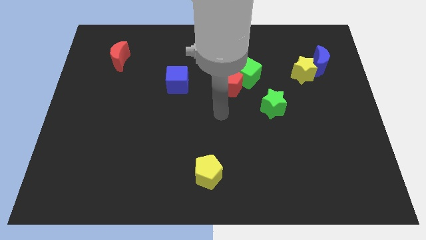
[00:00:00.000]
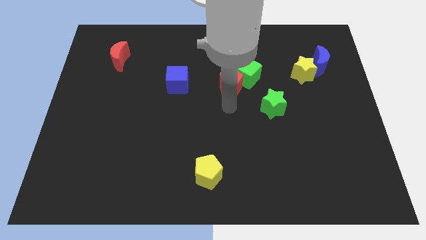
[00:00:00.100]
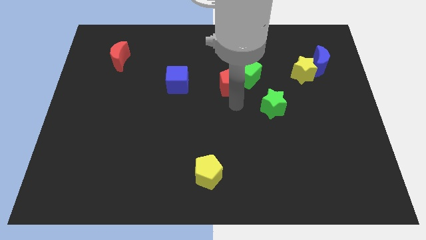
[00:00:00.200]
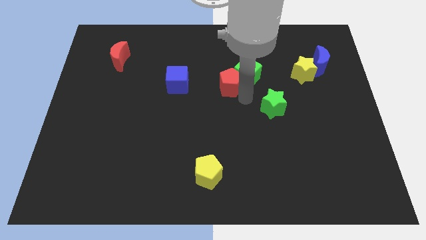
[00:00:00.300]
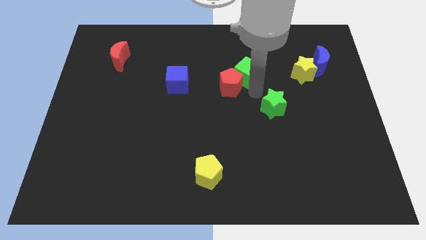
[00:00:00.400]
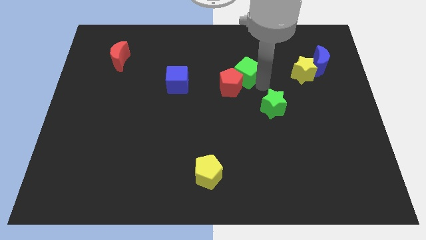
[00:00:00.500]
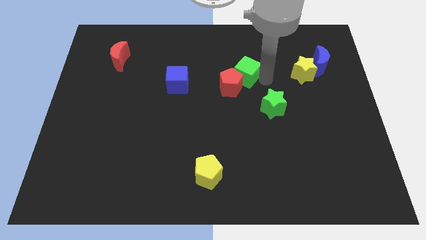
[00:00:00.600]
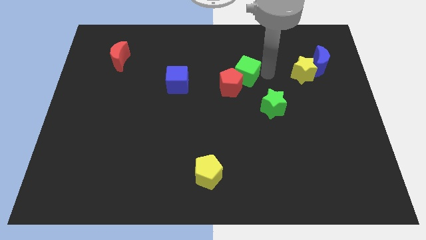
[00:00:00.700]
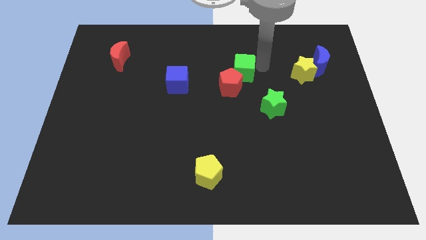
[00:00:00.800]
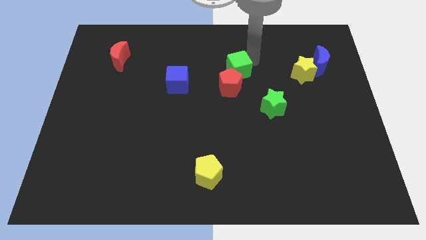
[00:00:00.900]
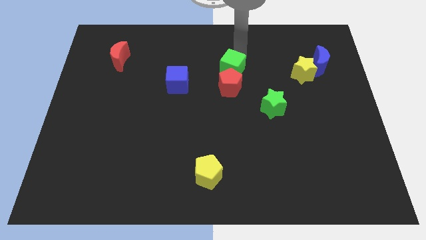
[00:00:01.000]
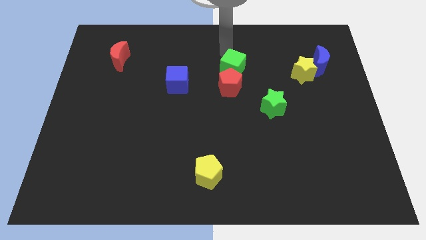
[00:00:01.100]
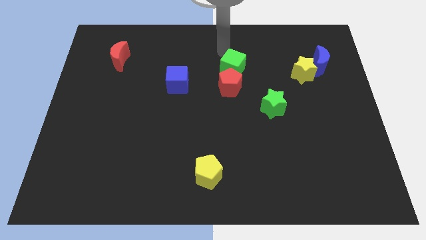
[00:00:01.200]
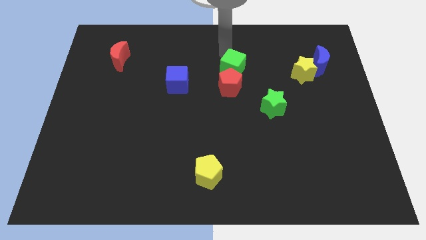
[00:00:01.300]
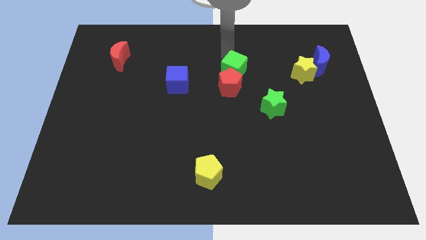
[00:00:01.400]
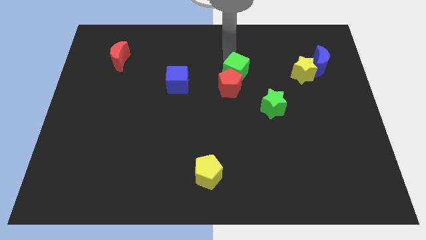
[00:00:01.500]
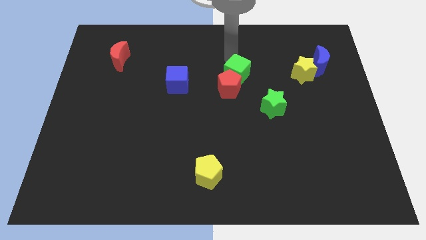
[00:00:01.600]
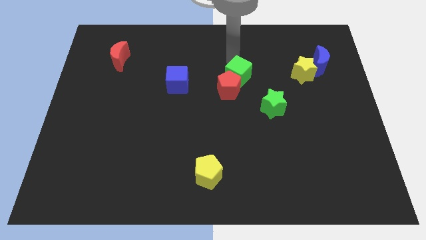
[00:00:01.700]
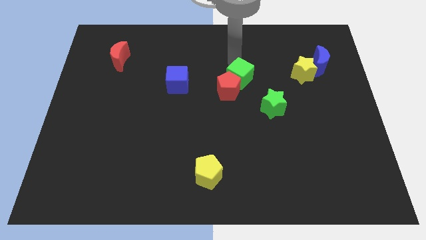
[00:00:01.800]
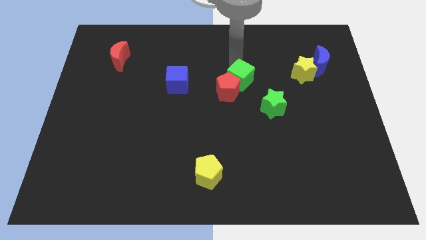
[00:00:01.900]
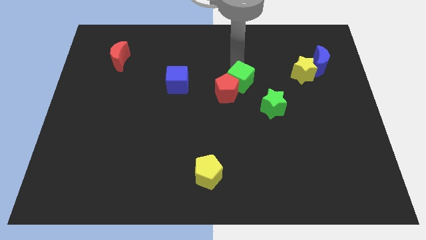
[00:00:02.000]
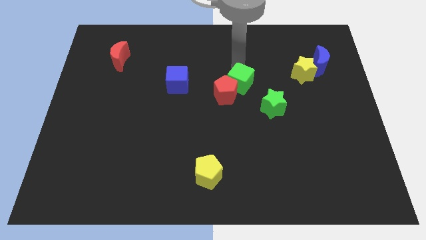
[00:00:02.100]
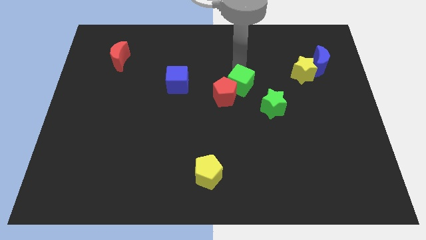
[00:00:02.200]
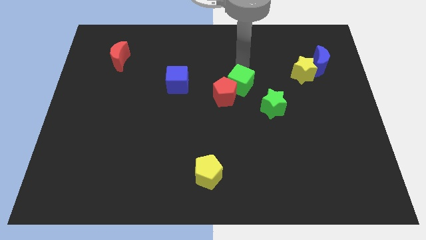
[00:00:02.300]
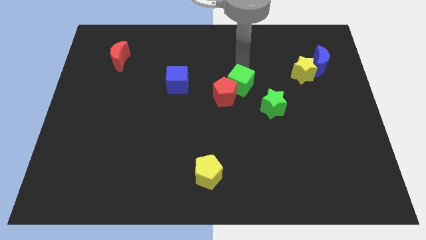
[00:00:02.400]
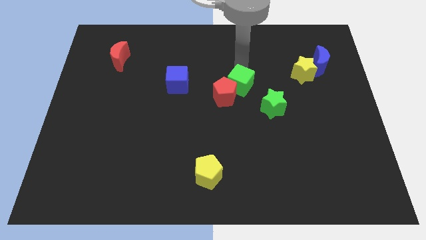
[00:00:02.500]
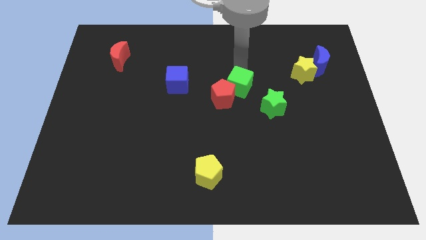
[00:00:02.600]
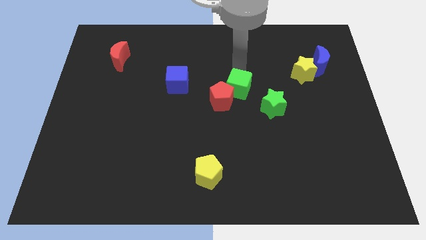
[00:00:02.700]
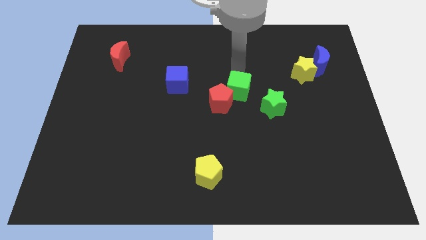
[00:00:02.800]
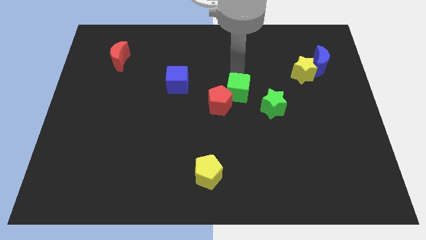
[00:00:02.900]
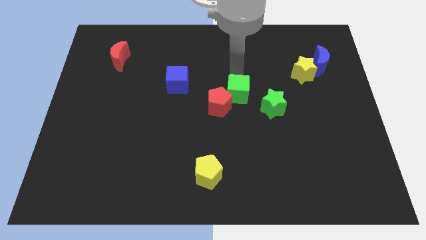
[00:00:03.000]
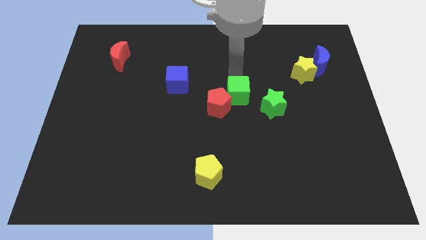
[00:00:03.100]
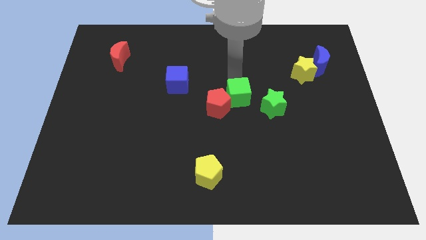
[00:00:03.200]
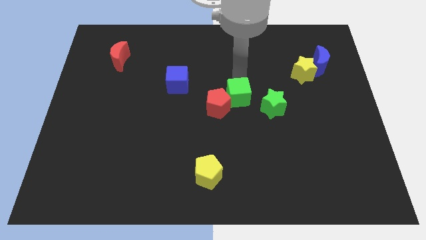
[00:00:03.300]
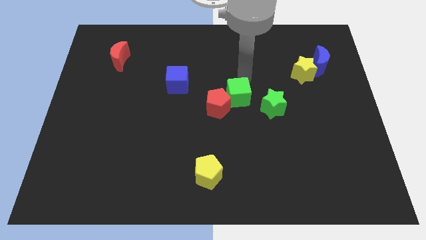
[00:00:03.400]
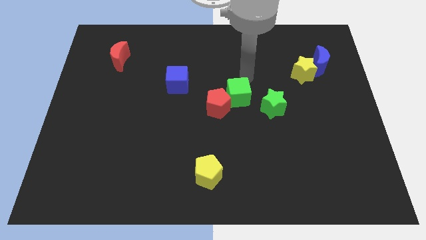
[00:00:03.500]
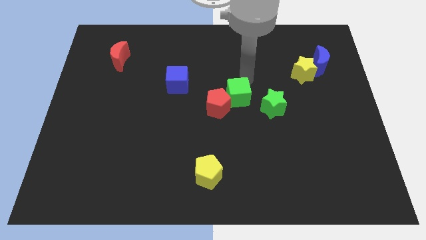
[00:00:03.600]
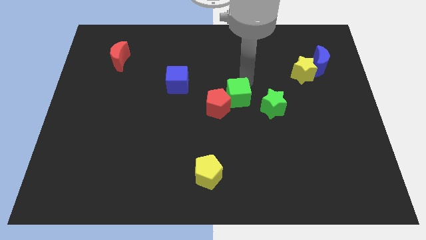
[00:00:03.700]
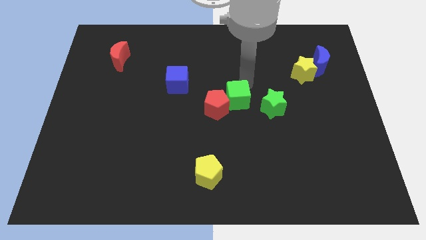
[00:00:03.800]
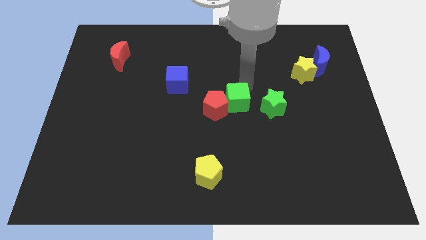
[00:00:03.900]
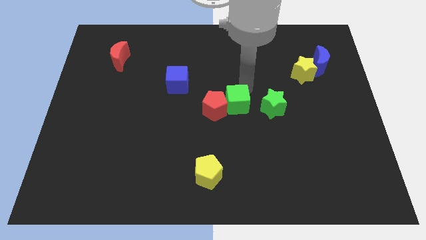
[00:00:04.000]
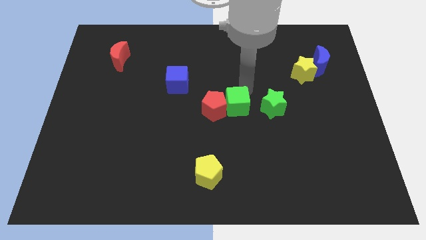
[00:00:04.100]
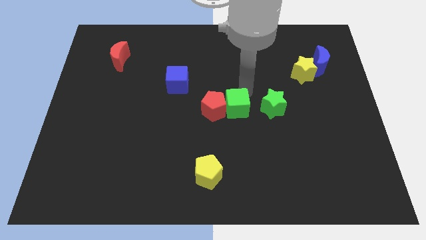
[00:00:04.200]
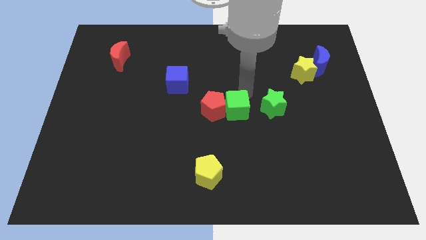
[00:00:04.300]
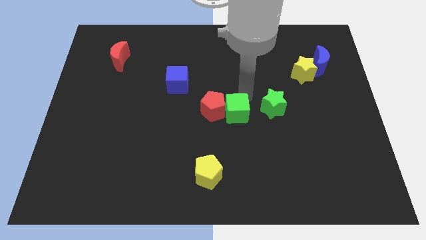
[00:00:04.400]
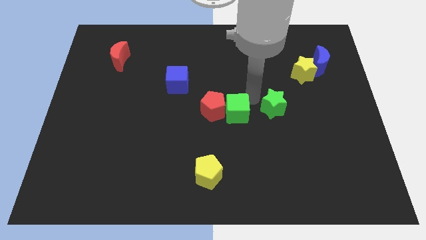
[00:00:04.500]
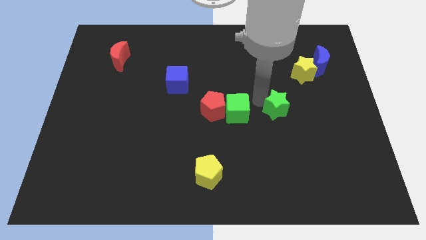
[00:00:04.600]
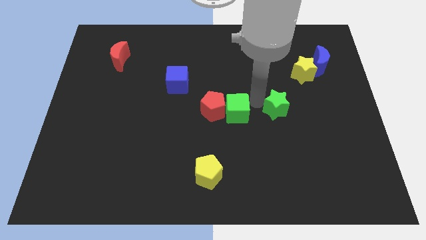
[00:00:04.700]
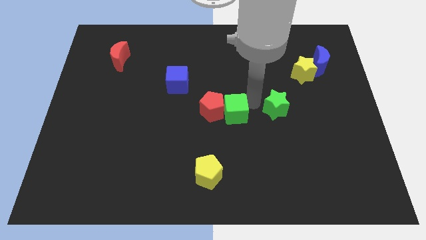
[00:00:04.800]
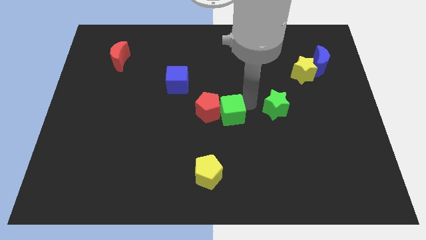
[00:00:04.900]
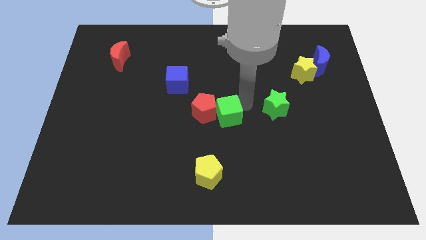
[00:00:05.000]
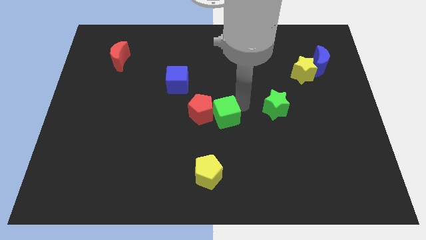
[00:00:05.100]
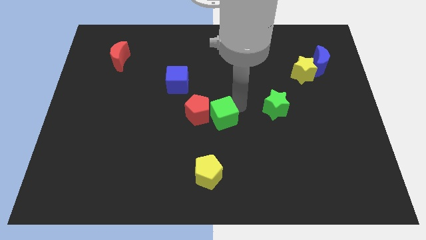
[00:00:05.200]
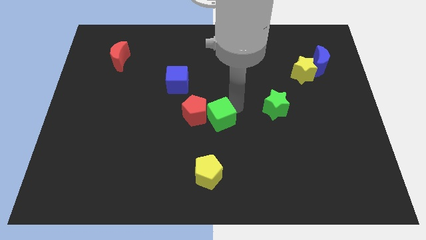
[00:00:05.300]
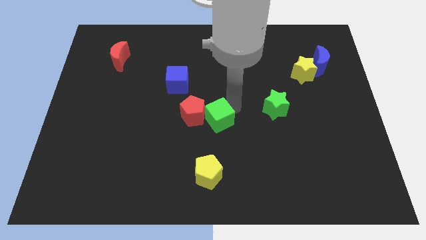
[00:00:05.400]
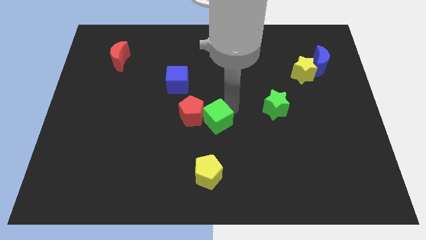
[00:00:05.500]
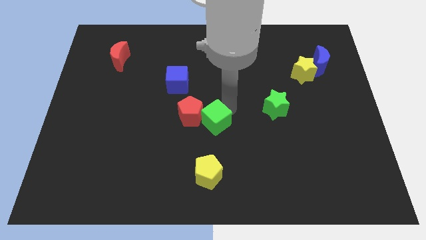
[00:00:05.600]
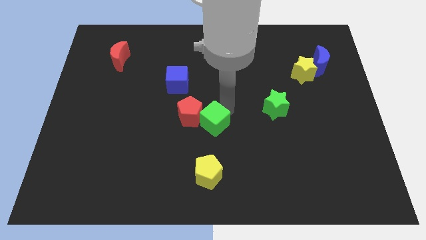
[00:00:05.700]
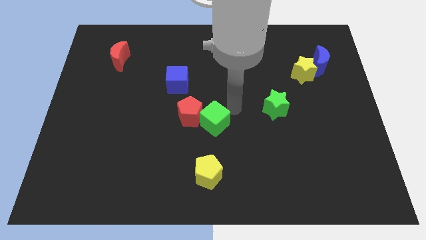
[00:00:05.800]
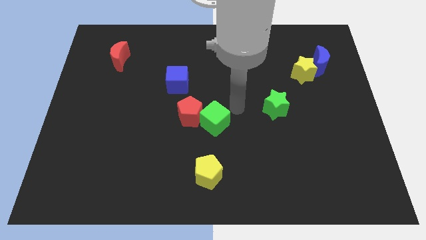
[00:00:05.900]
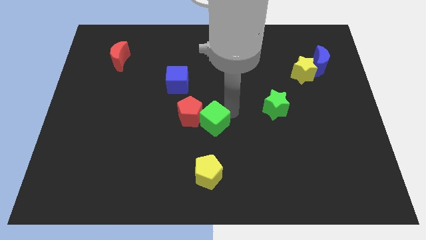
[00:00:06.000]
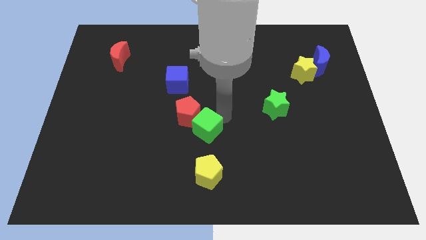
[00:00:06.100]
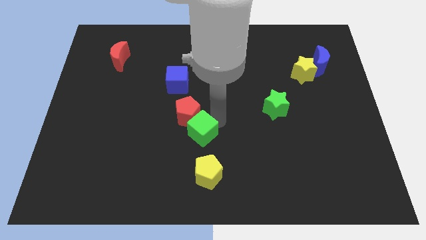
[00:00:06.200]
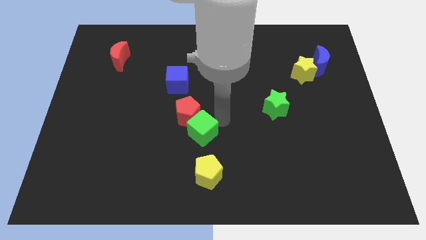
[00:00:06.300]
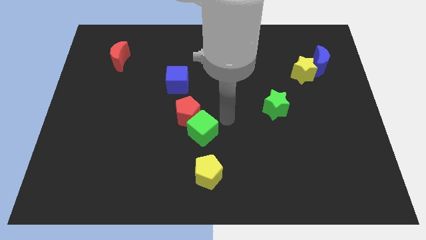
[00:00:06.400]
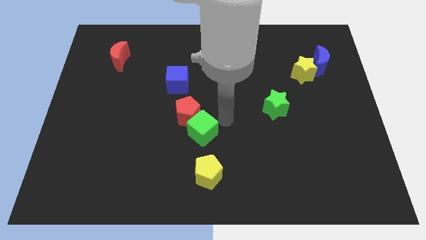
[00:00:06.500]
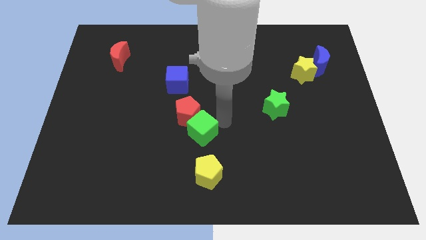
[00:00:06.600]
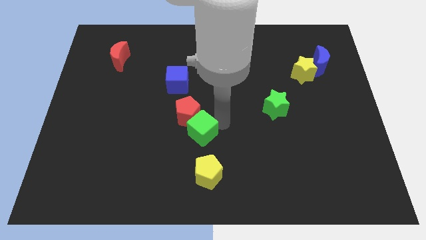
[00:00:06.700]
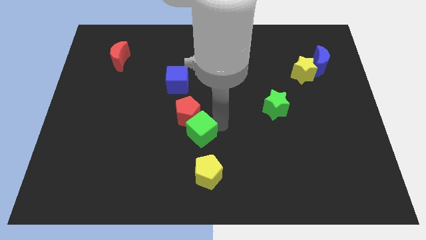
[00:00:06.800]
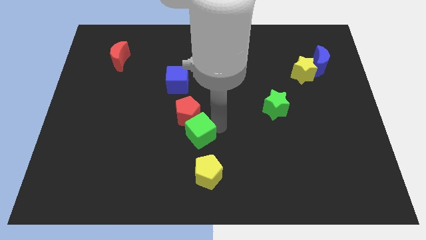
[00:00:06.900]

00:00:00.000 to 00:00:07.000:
slide the green cube downwards and then to the left

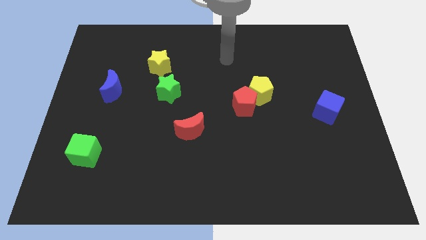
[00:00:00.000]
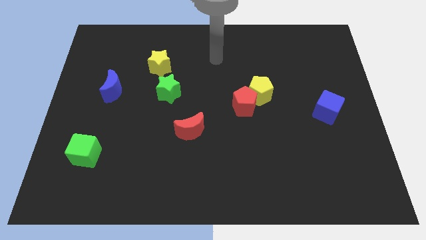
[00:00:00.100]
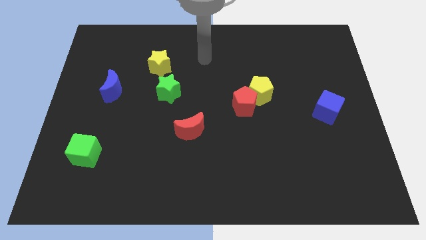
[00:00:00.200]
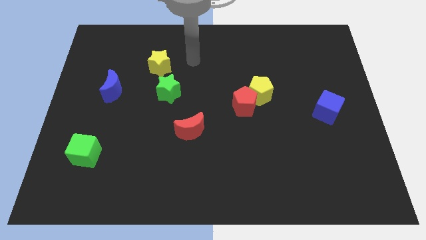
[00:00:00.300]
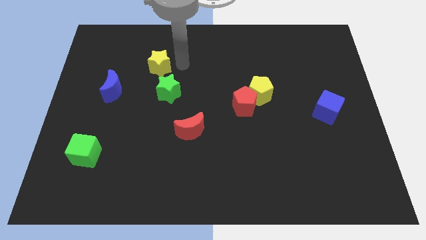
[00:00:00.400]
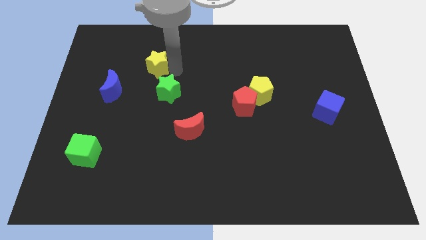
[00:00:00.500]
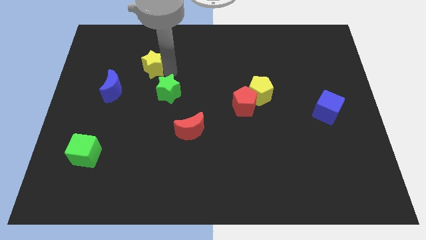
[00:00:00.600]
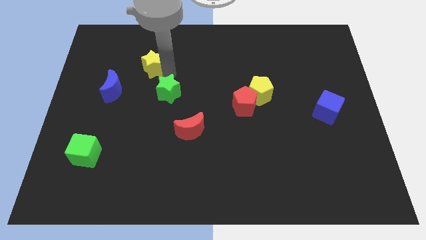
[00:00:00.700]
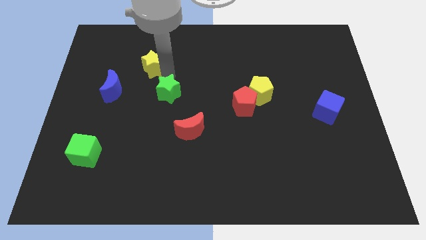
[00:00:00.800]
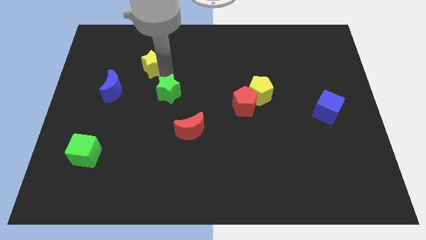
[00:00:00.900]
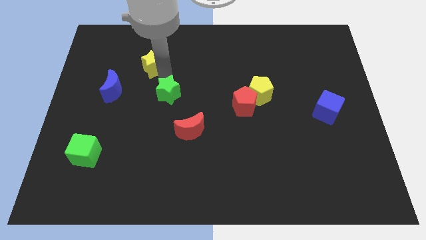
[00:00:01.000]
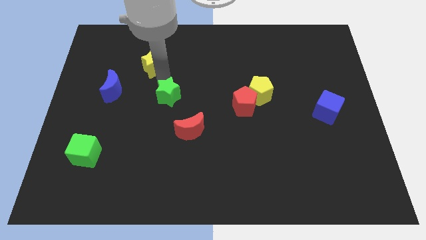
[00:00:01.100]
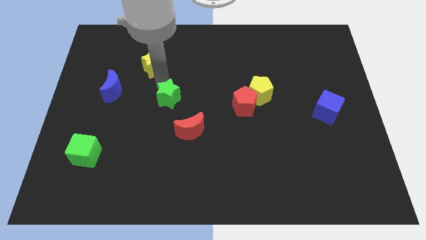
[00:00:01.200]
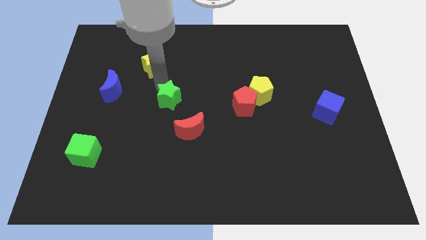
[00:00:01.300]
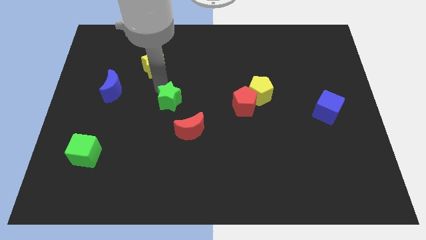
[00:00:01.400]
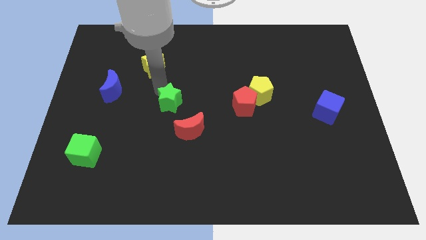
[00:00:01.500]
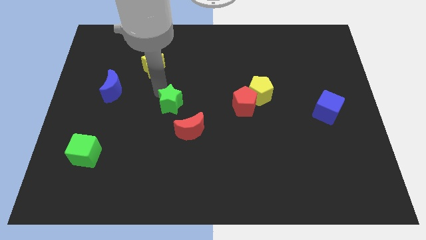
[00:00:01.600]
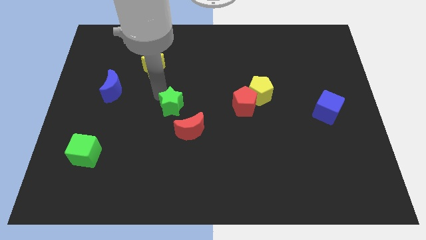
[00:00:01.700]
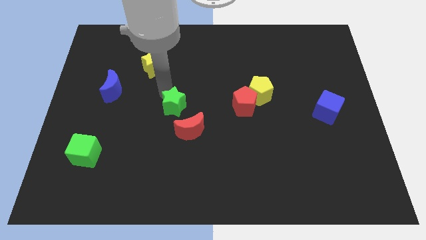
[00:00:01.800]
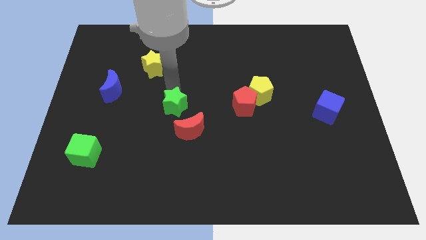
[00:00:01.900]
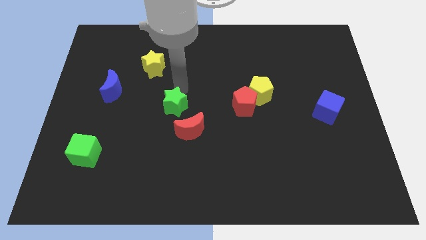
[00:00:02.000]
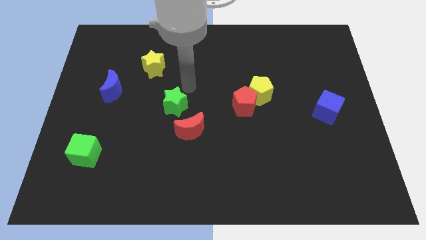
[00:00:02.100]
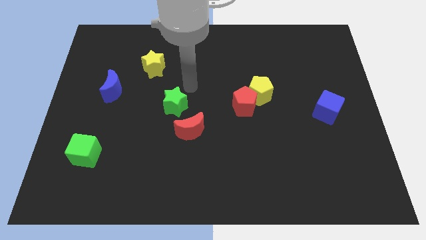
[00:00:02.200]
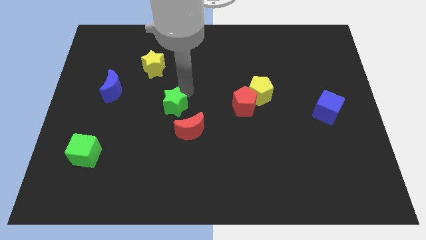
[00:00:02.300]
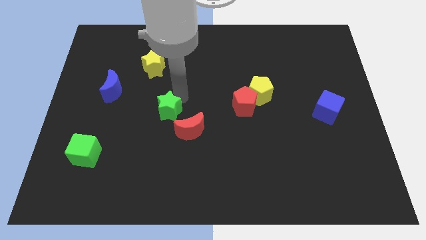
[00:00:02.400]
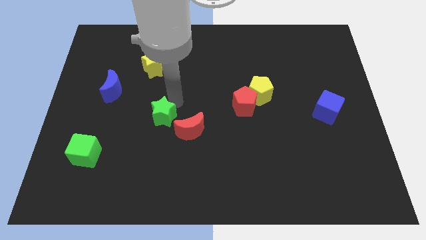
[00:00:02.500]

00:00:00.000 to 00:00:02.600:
slide the green star down somewhat
